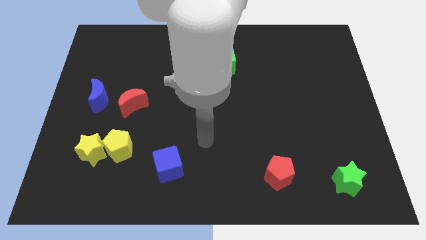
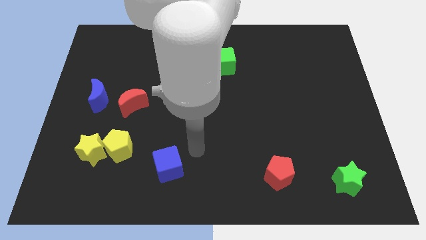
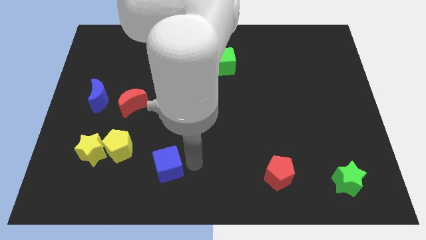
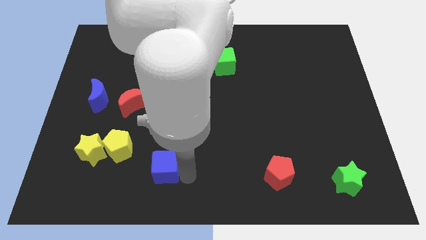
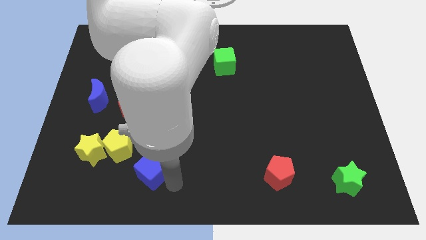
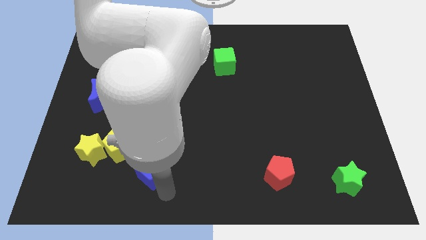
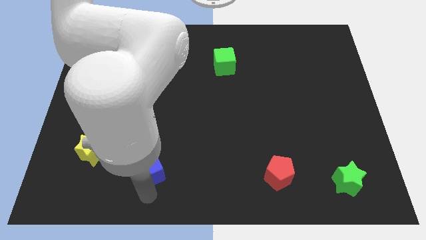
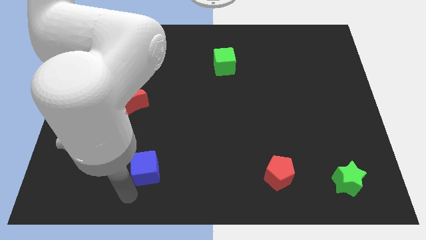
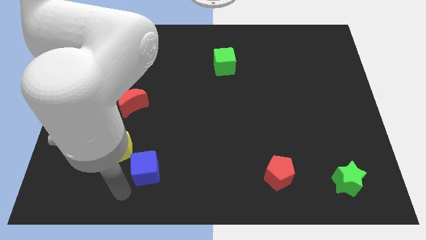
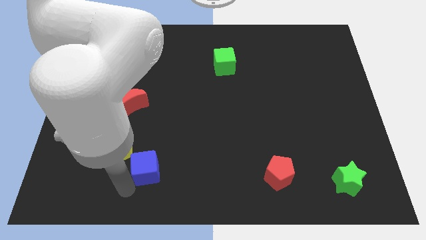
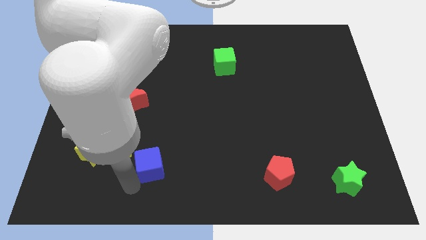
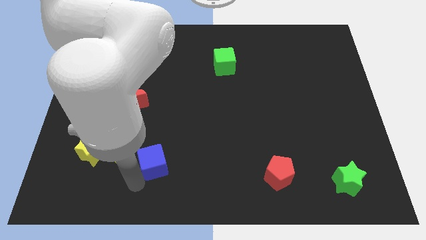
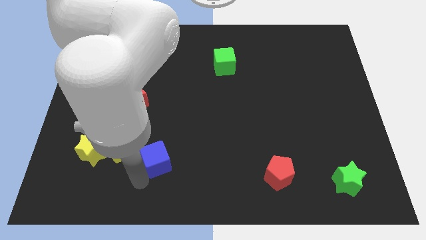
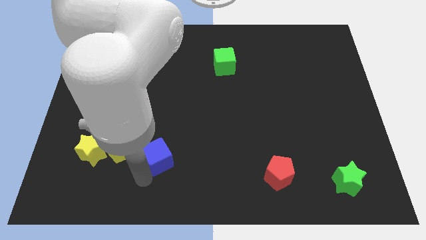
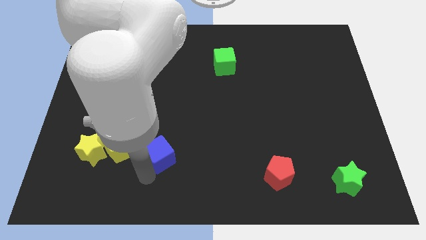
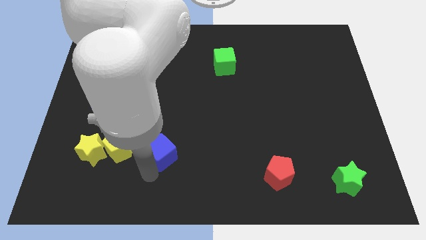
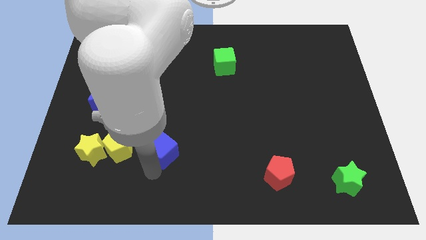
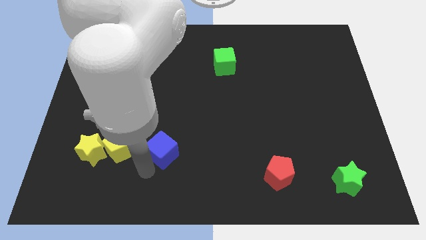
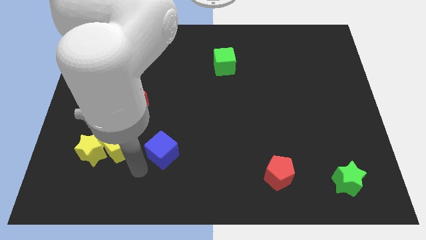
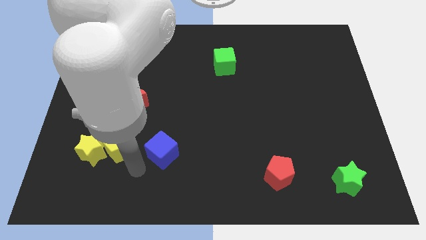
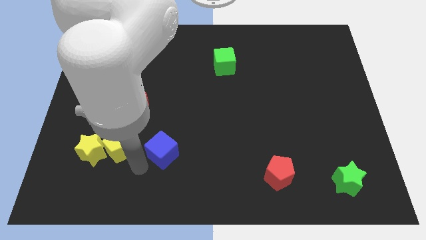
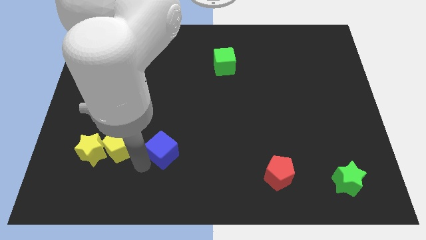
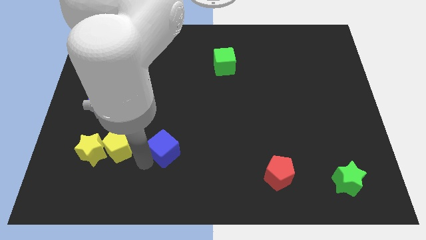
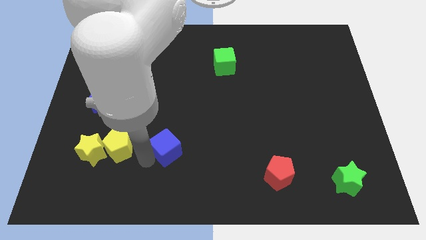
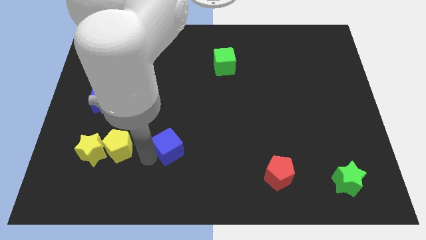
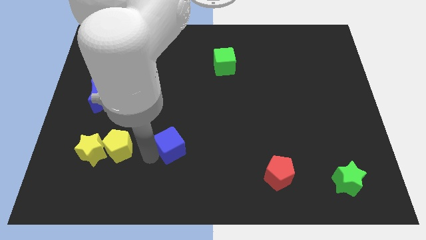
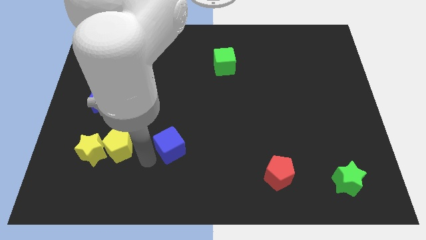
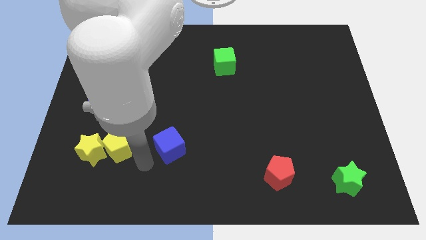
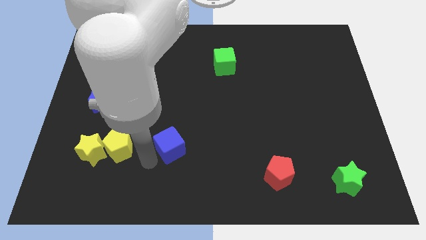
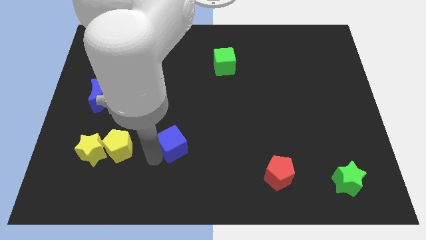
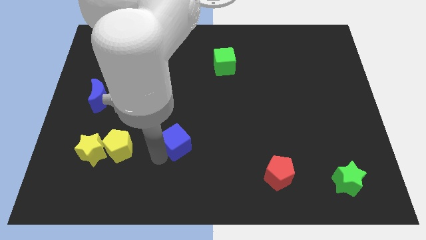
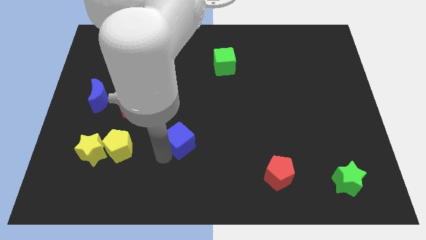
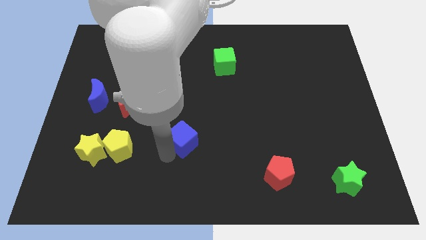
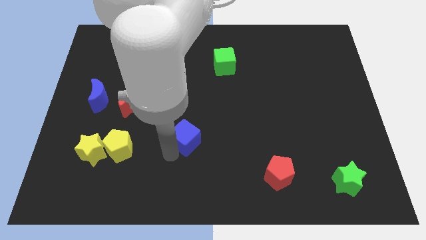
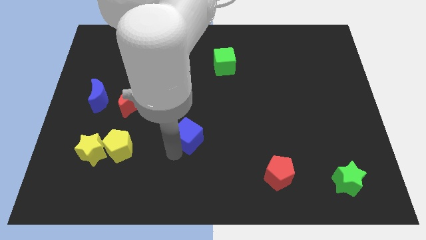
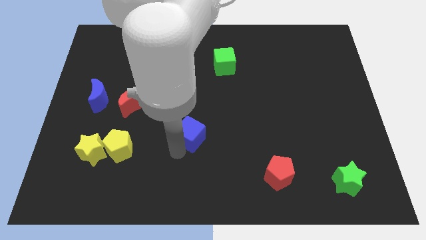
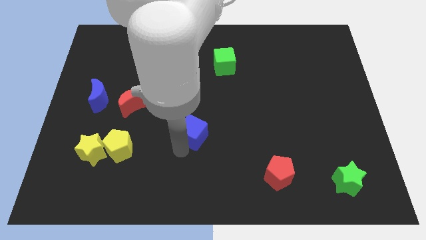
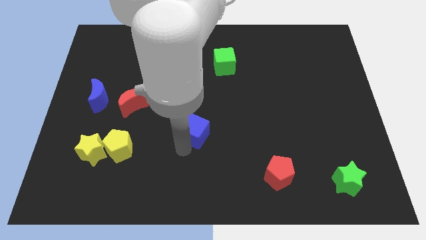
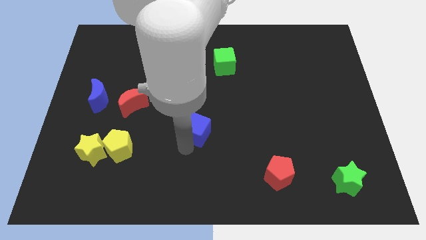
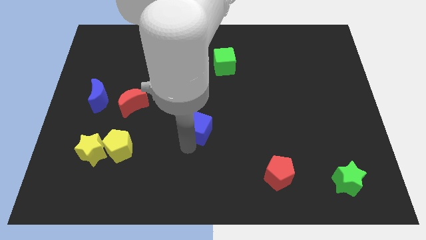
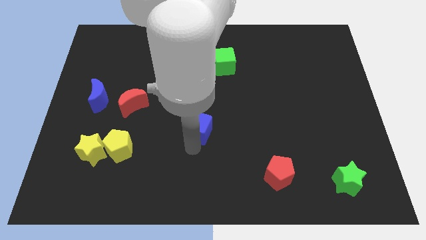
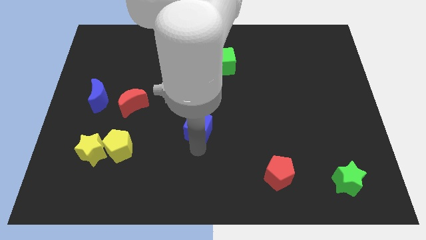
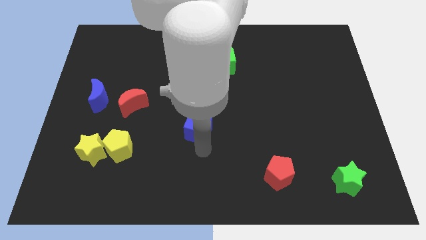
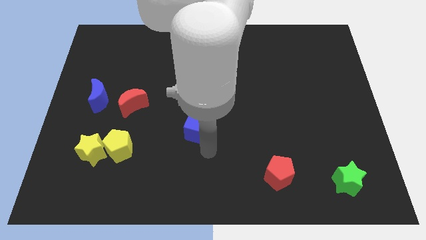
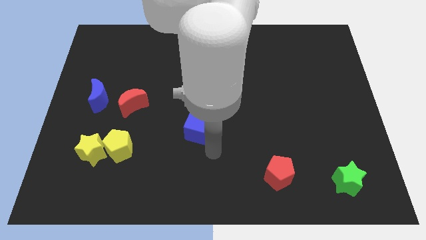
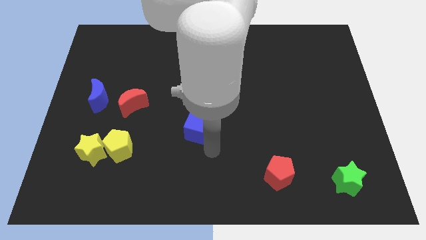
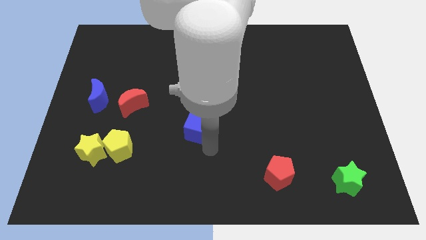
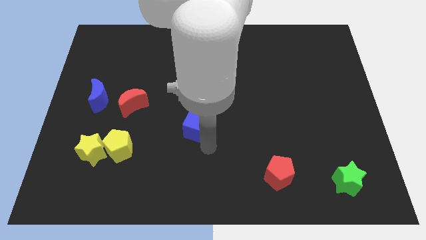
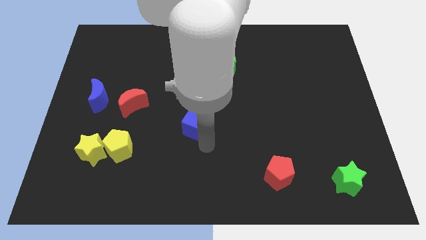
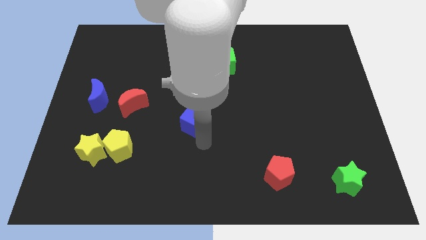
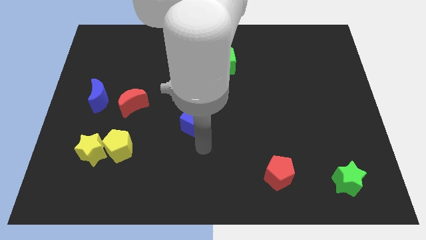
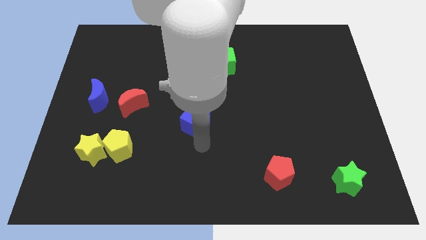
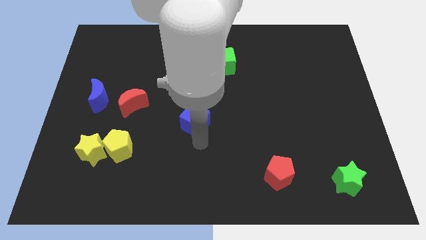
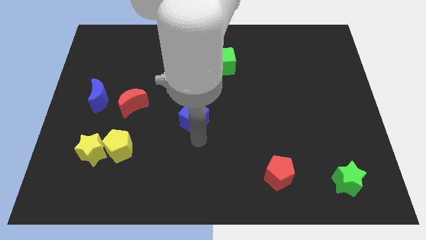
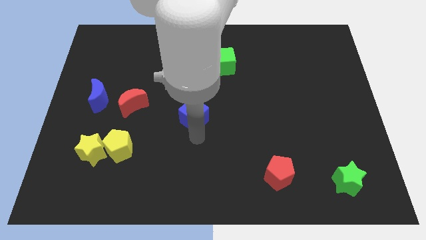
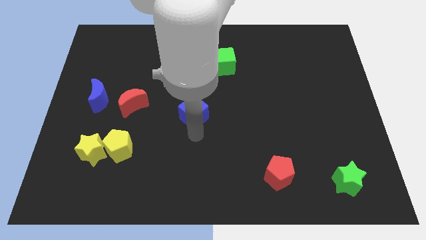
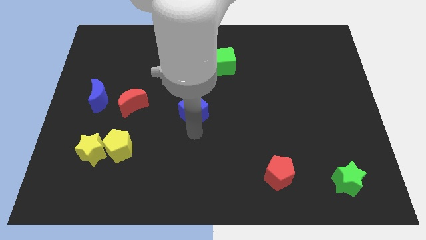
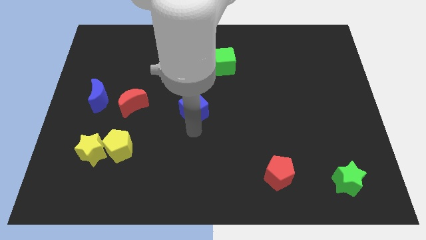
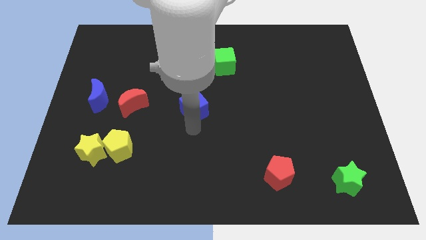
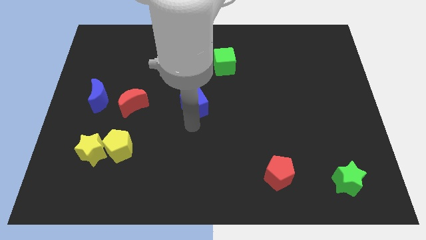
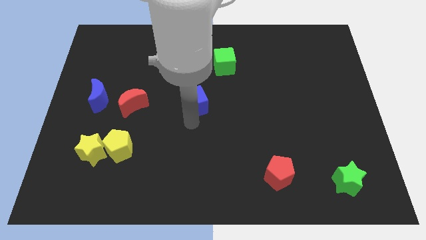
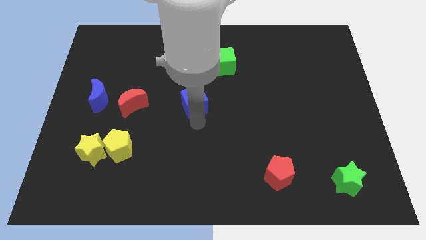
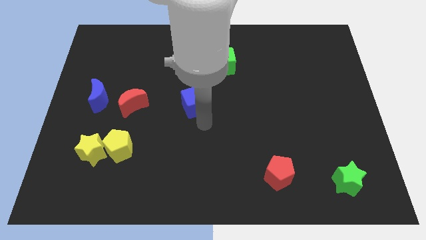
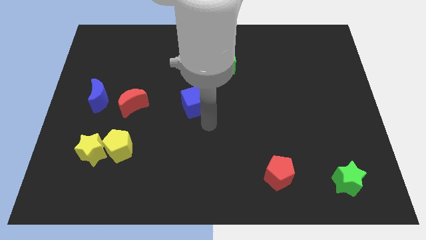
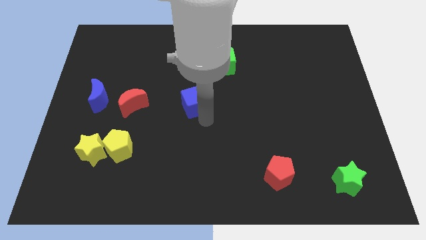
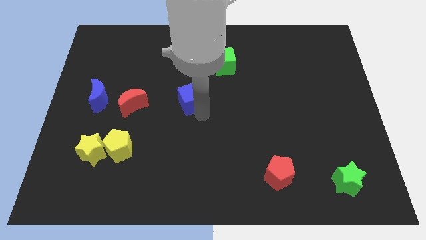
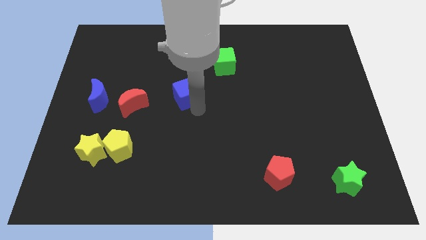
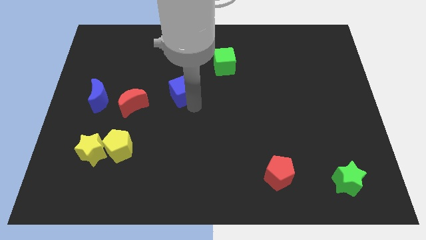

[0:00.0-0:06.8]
slide the blue cube upwards

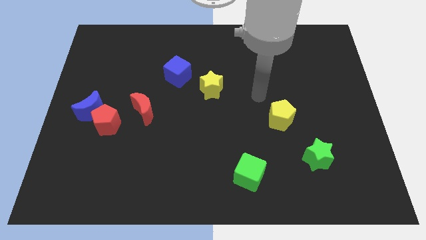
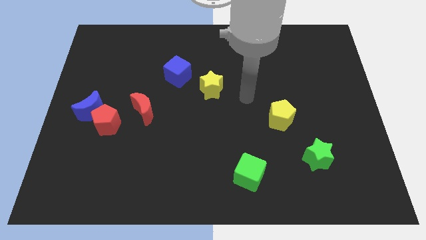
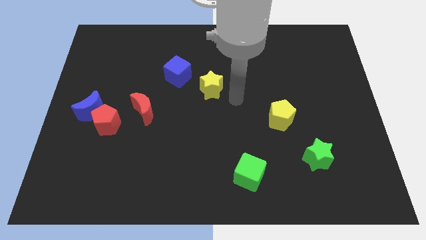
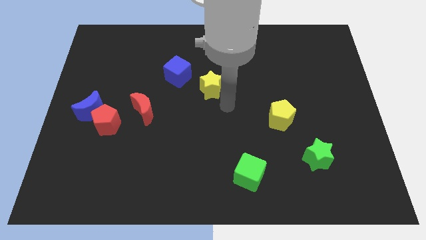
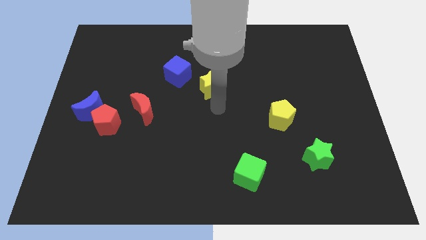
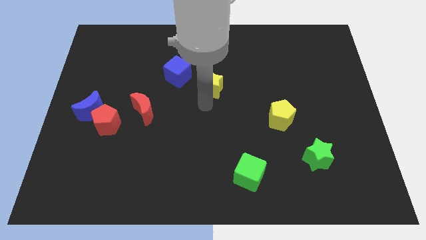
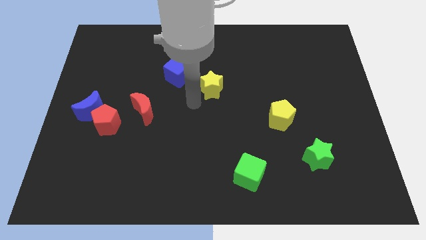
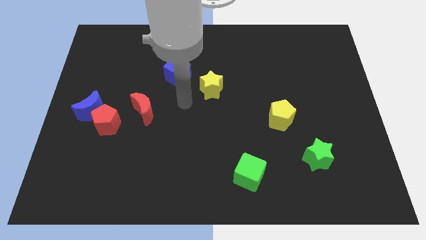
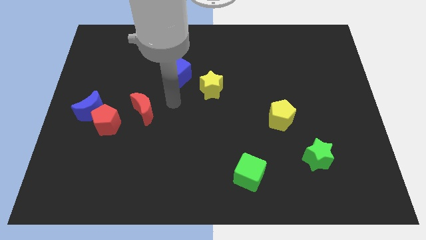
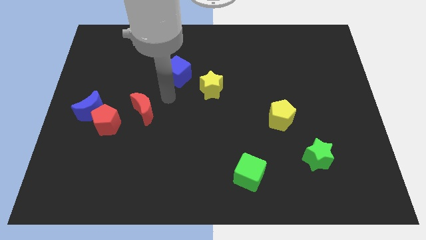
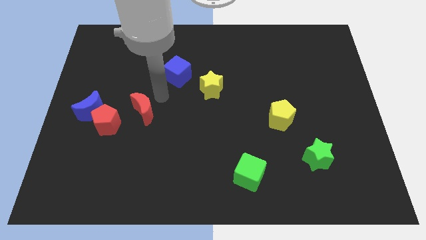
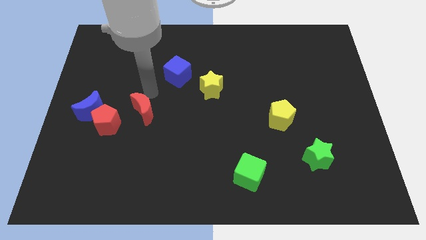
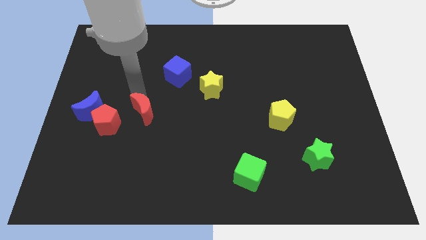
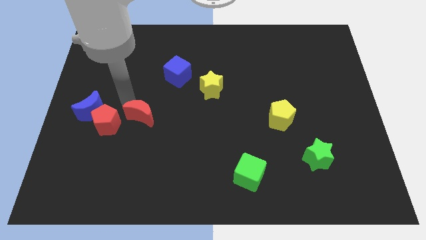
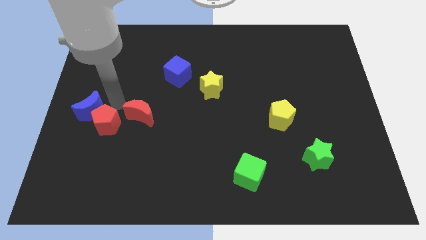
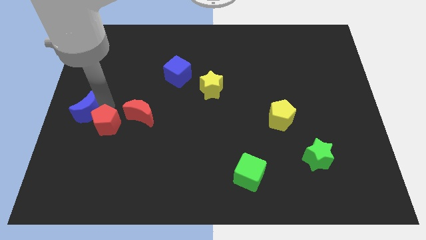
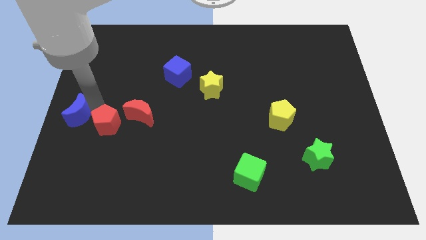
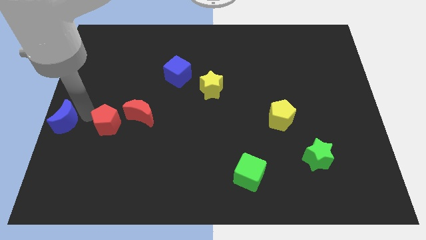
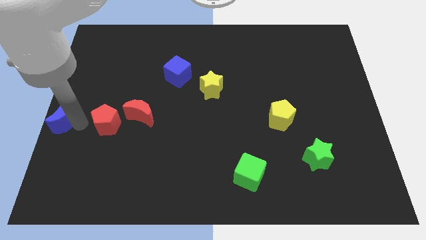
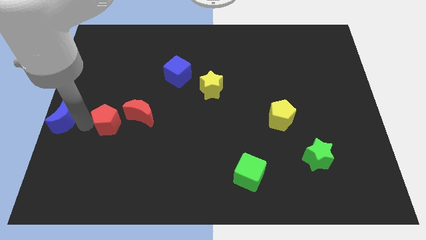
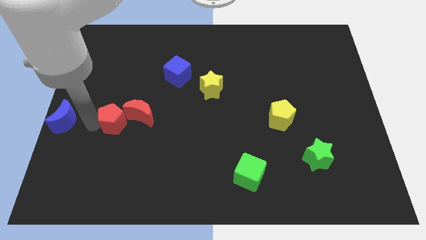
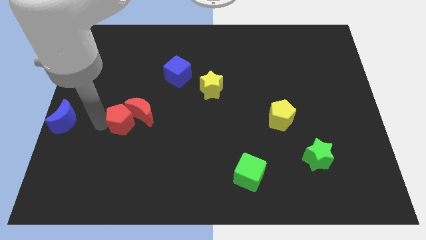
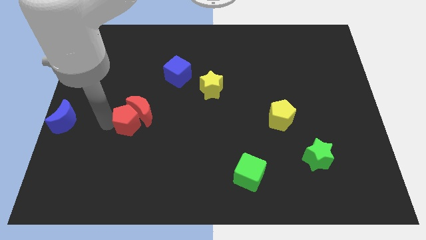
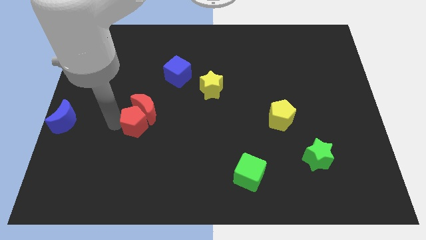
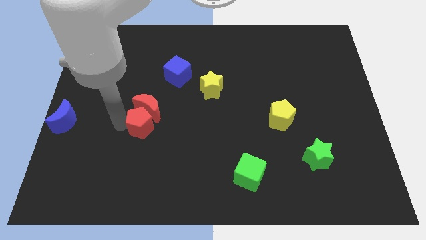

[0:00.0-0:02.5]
move the red pentagon somewhat to the right
